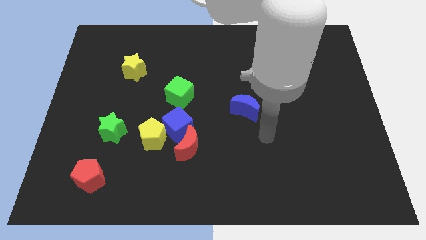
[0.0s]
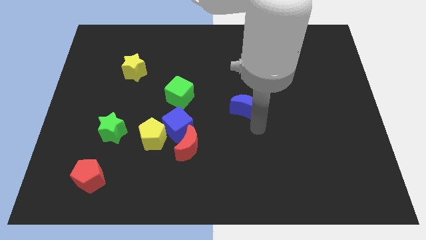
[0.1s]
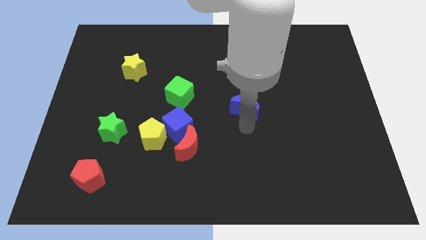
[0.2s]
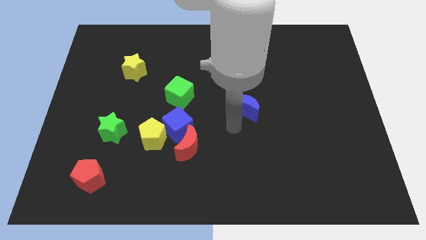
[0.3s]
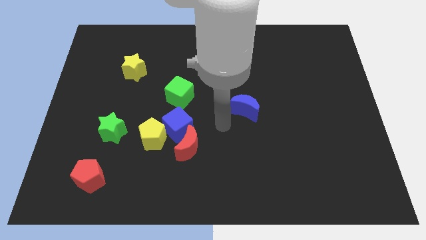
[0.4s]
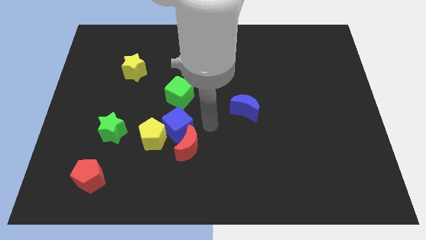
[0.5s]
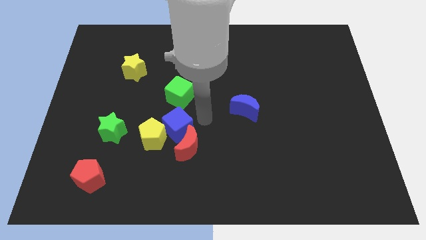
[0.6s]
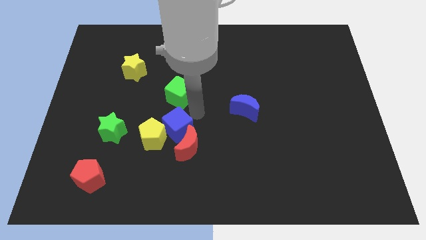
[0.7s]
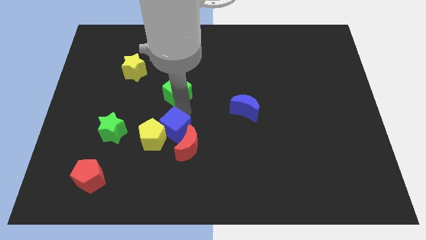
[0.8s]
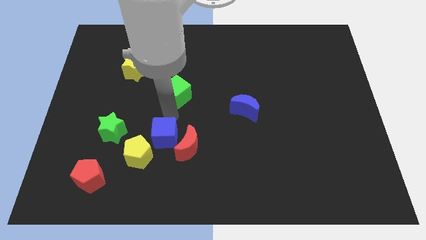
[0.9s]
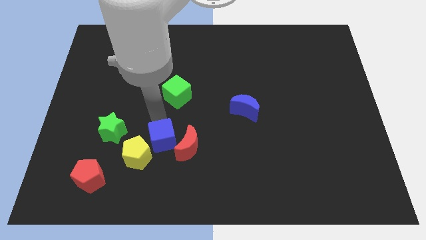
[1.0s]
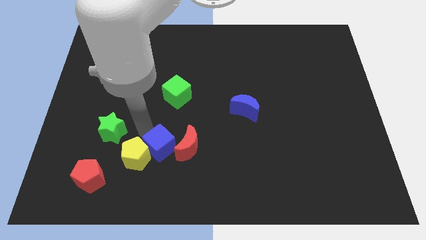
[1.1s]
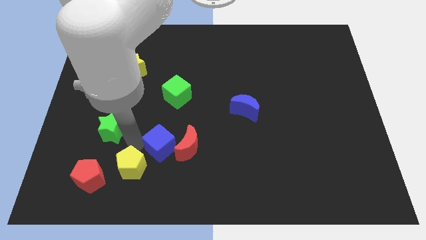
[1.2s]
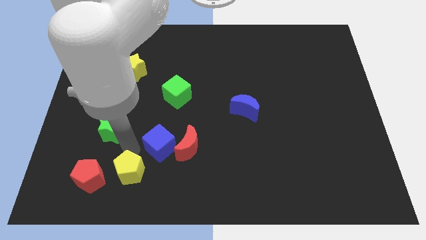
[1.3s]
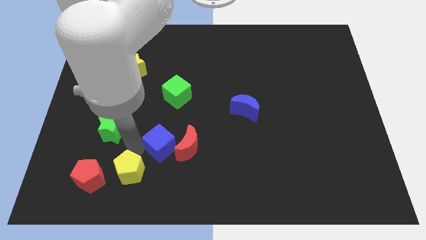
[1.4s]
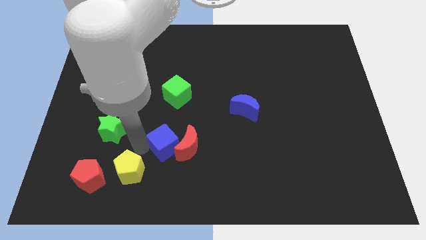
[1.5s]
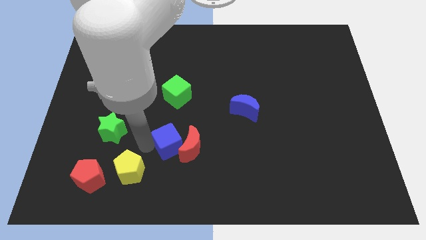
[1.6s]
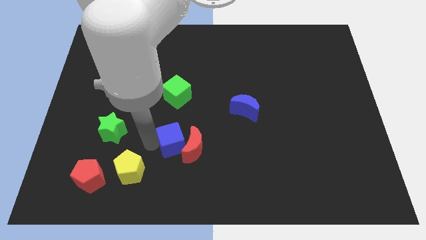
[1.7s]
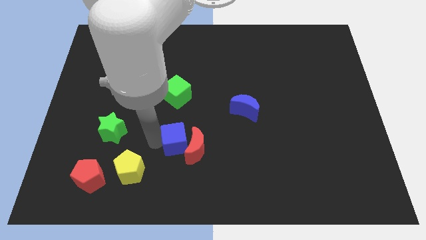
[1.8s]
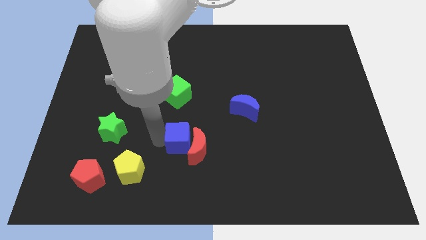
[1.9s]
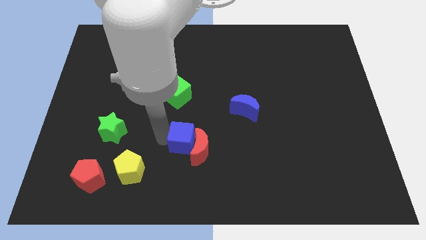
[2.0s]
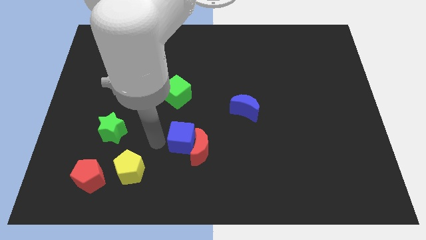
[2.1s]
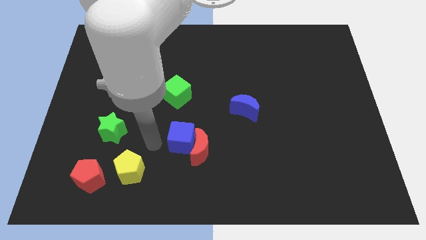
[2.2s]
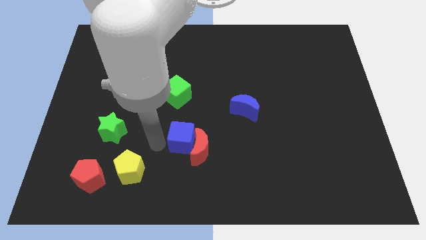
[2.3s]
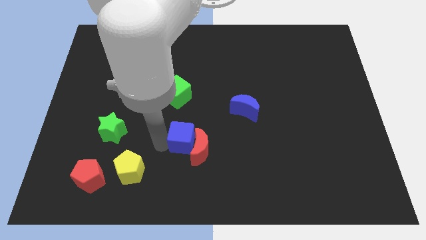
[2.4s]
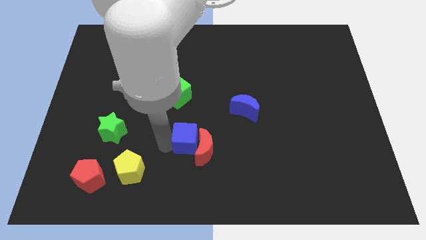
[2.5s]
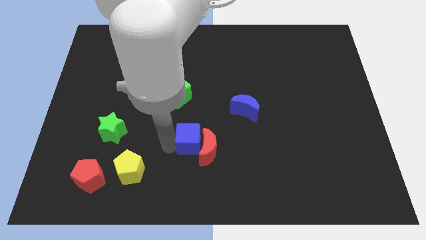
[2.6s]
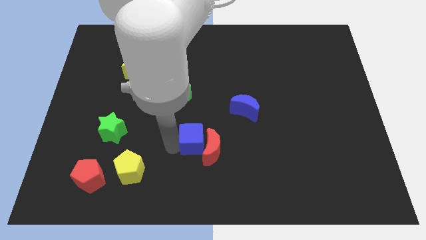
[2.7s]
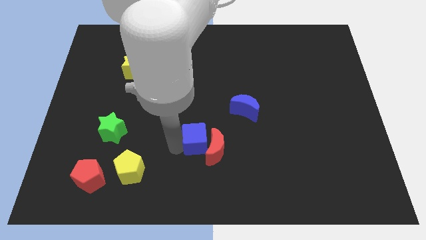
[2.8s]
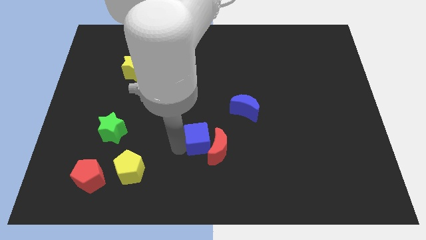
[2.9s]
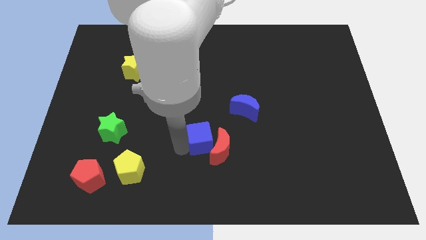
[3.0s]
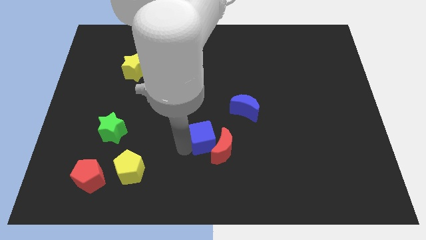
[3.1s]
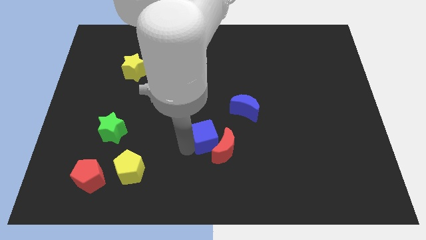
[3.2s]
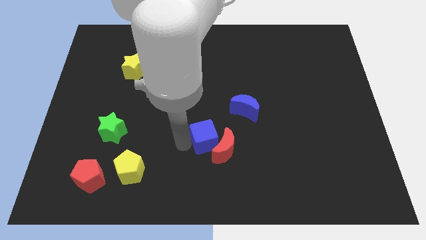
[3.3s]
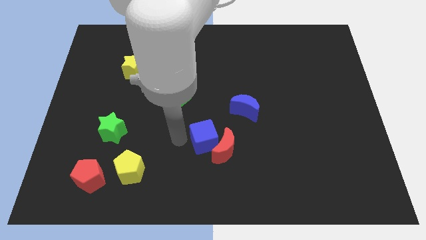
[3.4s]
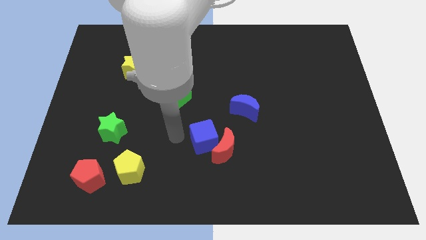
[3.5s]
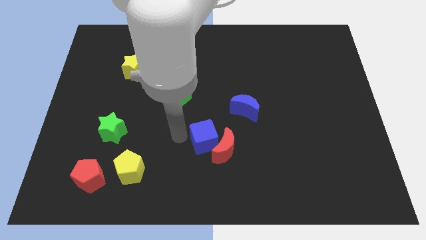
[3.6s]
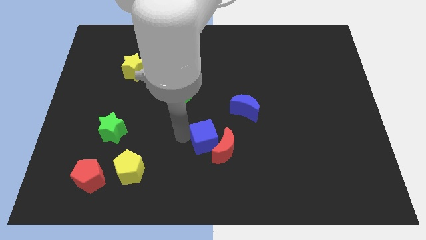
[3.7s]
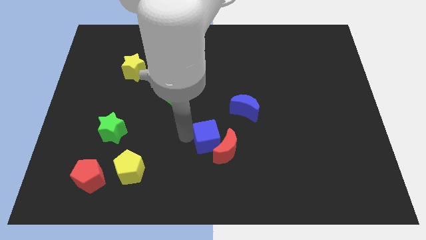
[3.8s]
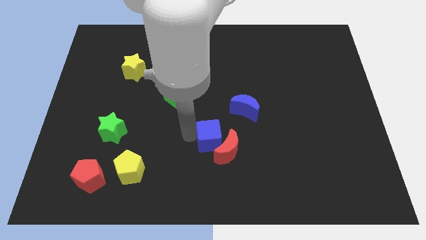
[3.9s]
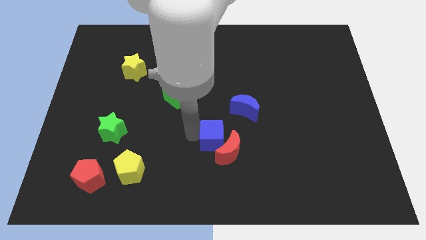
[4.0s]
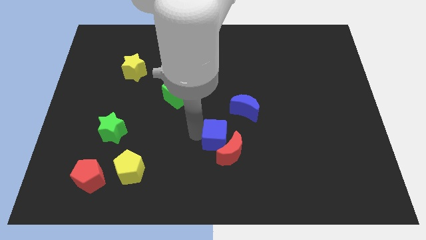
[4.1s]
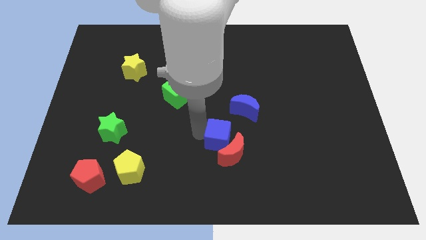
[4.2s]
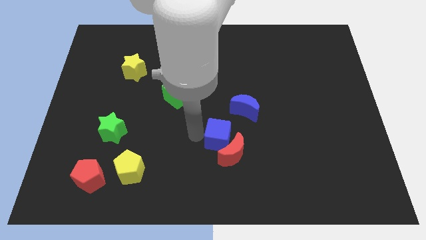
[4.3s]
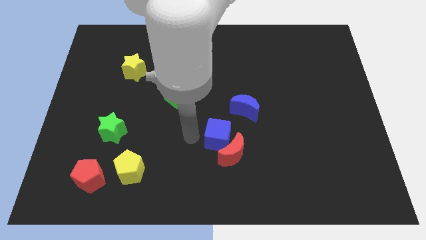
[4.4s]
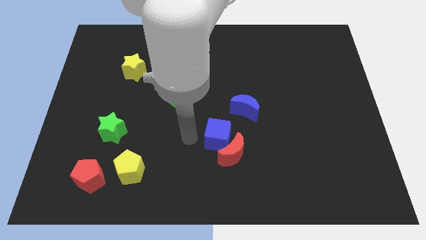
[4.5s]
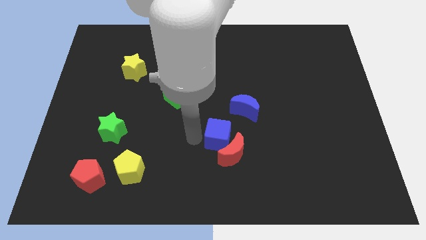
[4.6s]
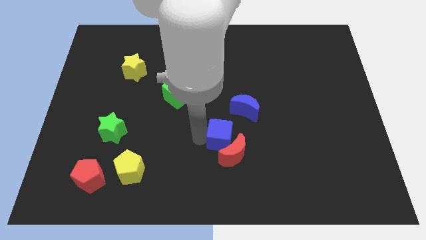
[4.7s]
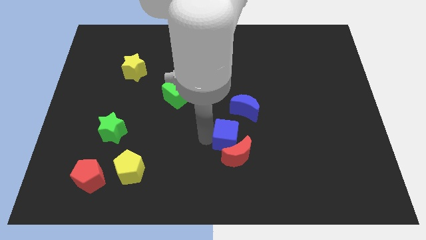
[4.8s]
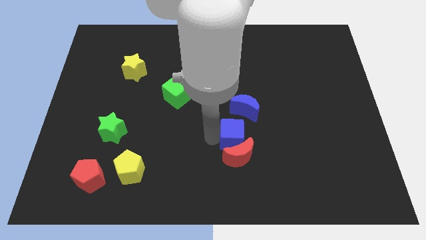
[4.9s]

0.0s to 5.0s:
separate the blue cube from the group of blocks

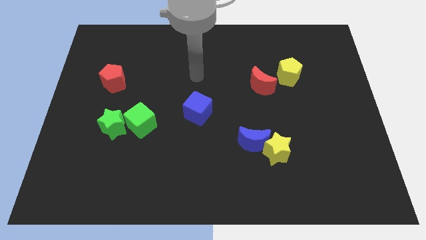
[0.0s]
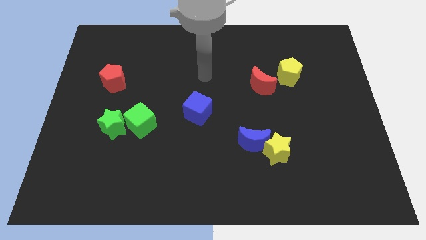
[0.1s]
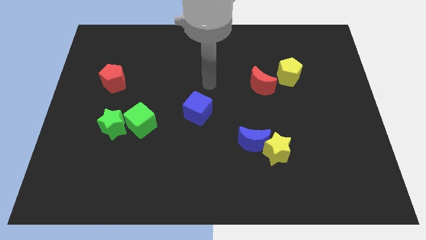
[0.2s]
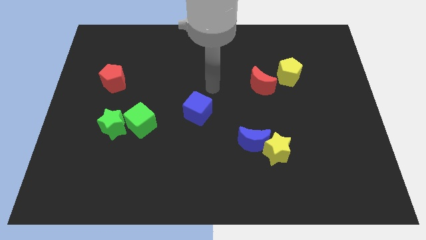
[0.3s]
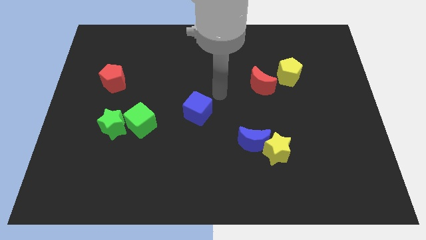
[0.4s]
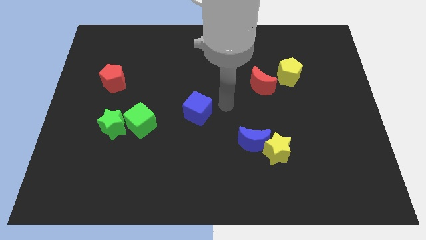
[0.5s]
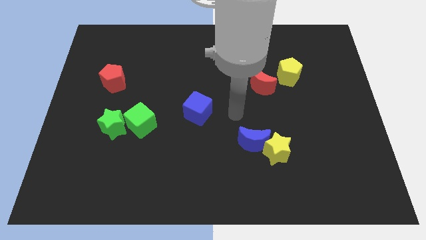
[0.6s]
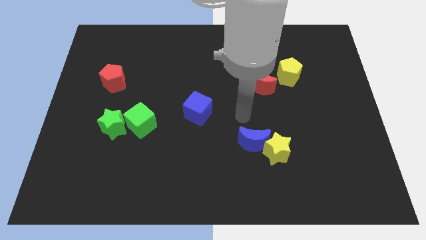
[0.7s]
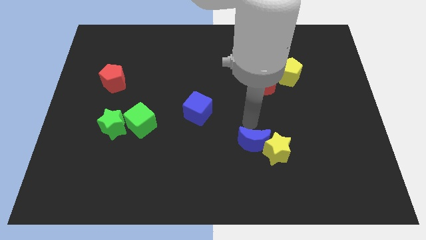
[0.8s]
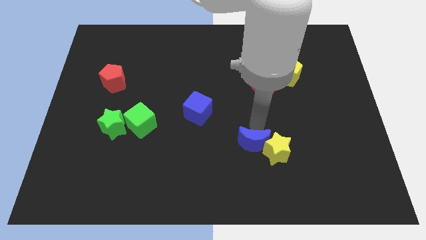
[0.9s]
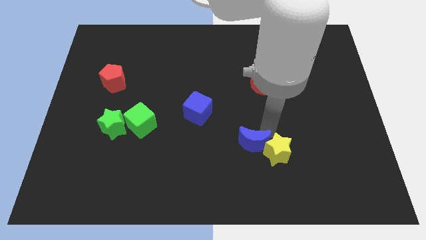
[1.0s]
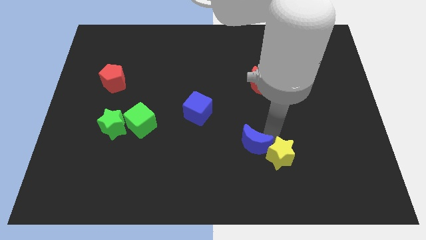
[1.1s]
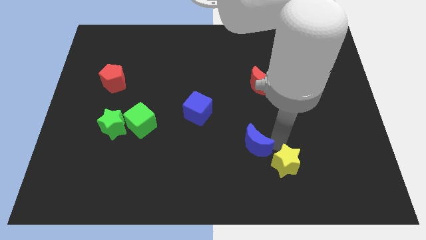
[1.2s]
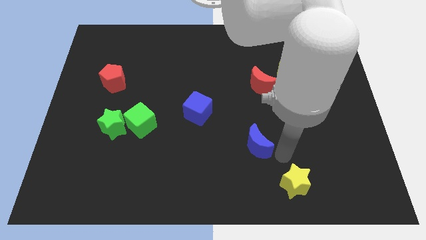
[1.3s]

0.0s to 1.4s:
separate the blue moon from the yellow star

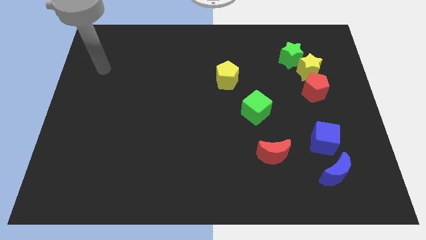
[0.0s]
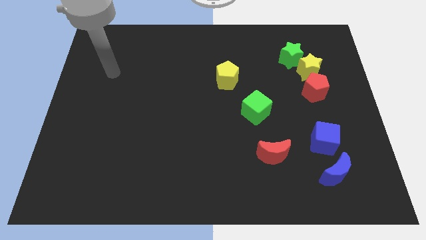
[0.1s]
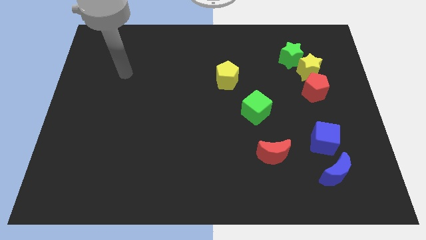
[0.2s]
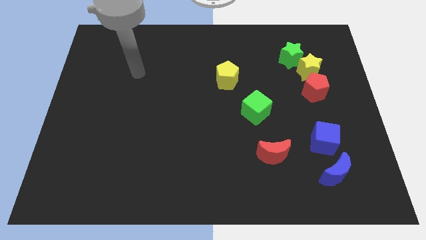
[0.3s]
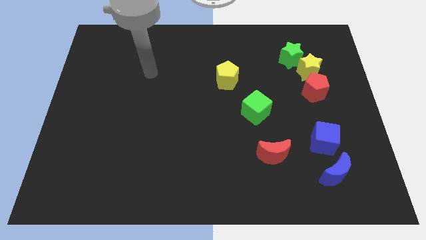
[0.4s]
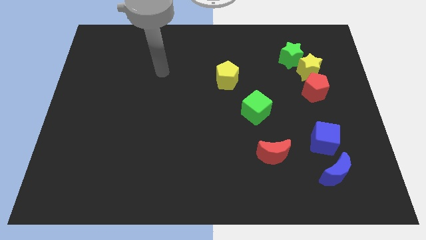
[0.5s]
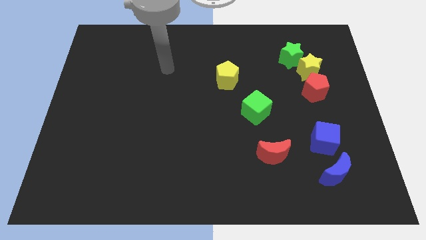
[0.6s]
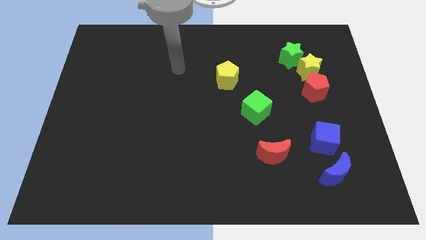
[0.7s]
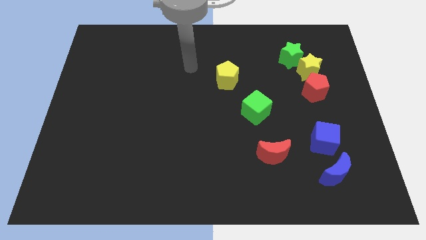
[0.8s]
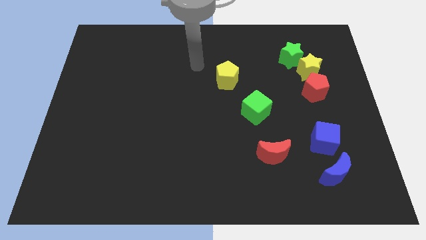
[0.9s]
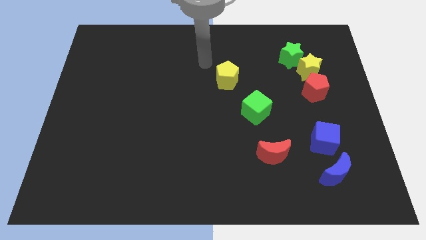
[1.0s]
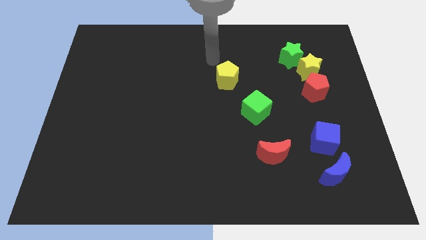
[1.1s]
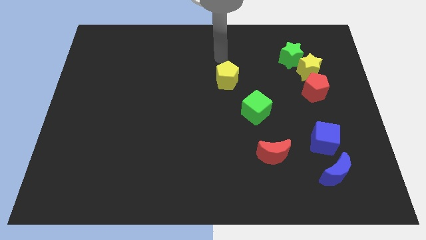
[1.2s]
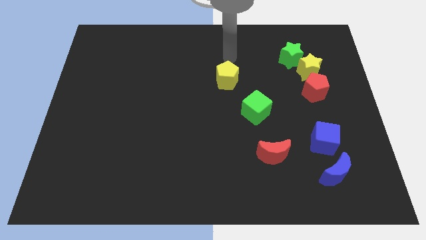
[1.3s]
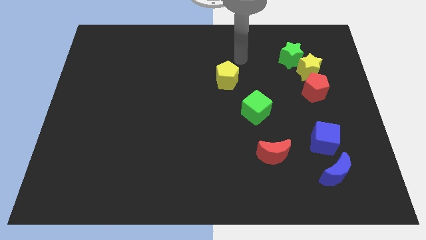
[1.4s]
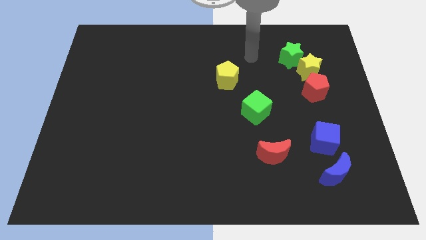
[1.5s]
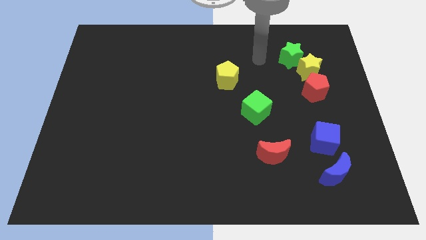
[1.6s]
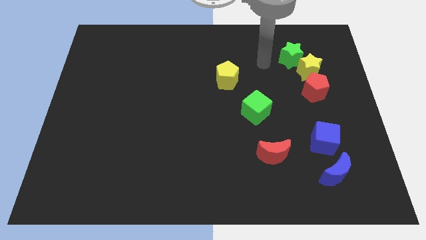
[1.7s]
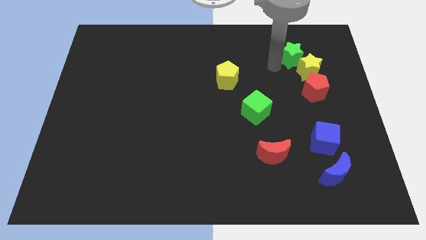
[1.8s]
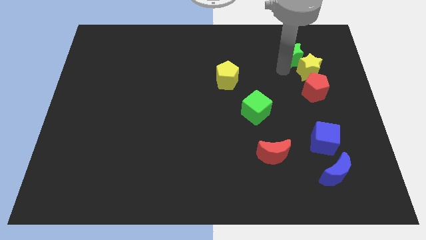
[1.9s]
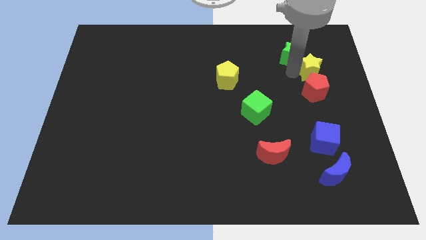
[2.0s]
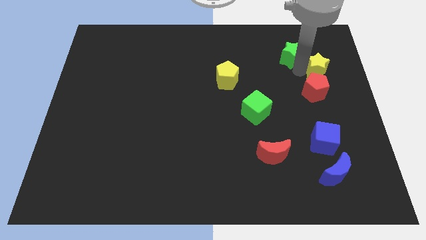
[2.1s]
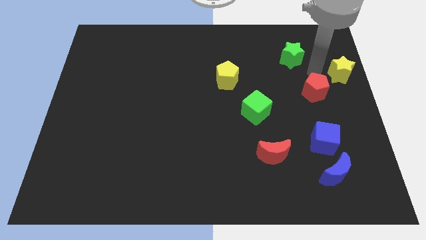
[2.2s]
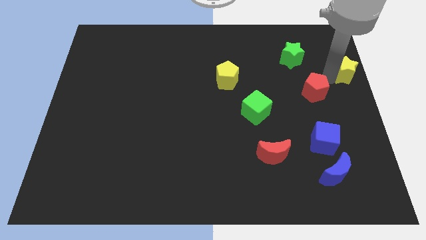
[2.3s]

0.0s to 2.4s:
pull the red pentagon apart from the yellow star

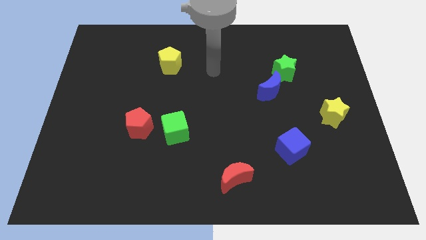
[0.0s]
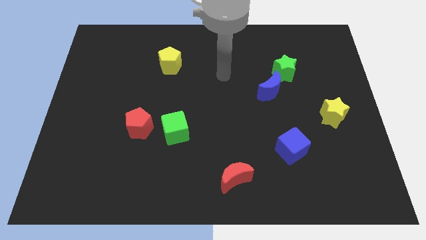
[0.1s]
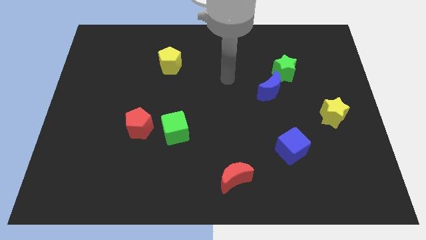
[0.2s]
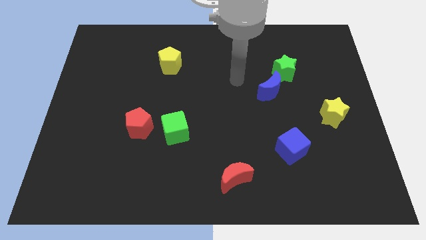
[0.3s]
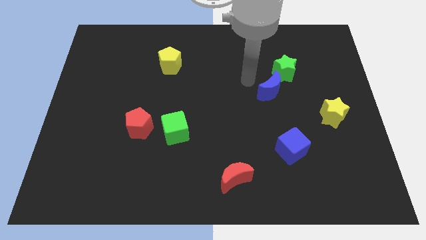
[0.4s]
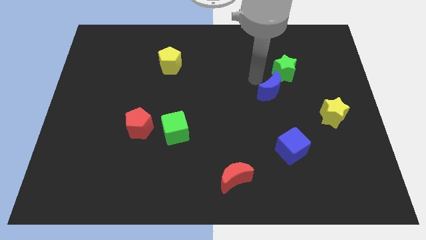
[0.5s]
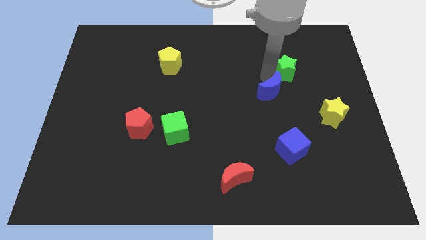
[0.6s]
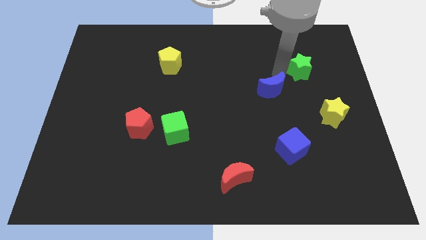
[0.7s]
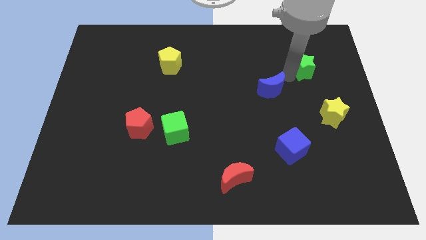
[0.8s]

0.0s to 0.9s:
separate the blue moon from the green star
